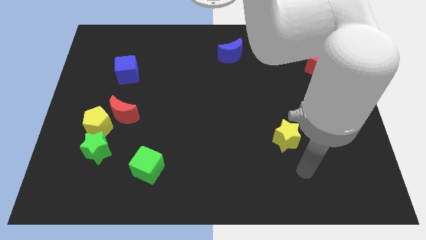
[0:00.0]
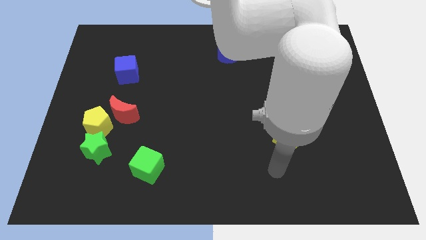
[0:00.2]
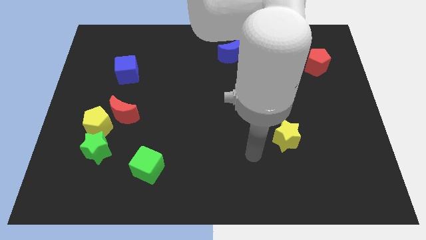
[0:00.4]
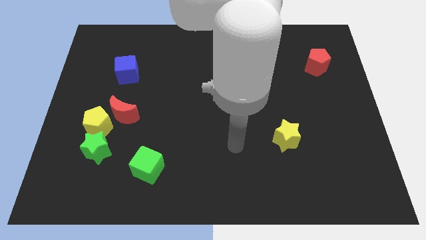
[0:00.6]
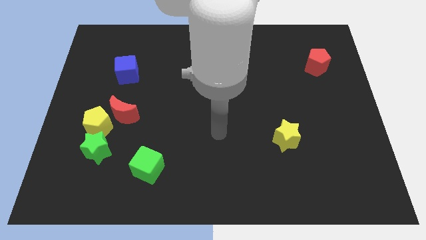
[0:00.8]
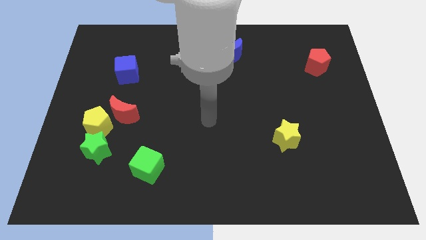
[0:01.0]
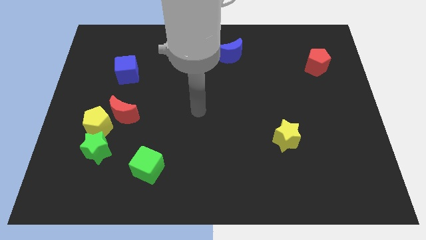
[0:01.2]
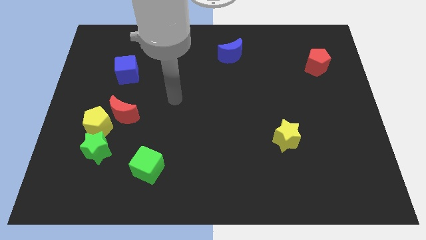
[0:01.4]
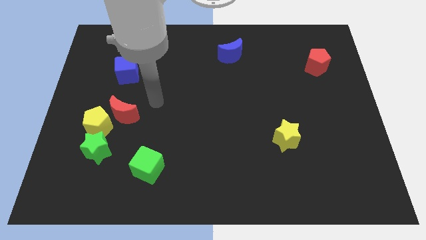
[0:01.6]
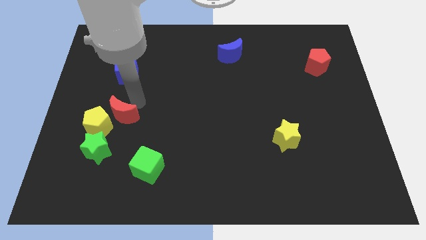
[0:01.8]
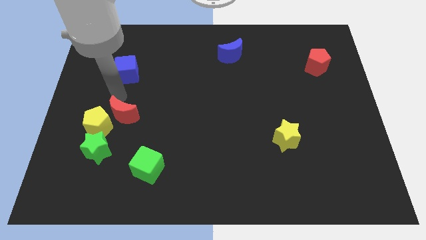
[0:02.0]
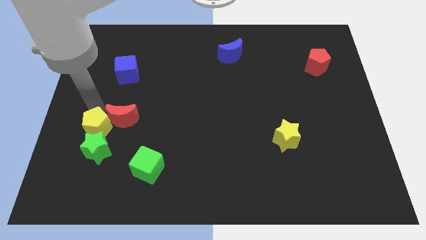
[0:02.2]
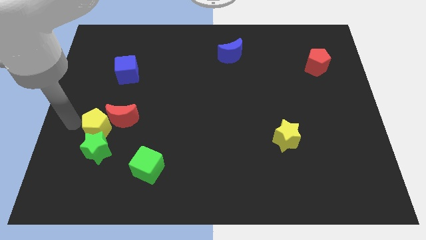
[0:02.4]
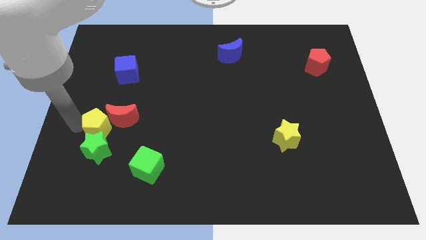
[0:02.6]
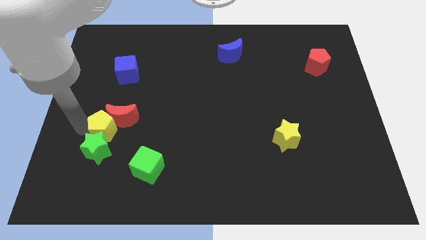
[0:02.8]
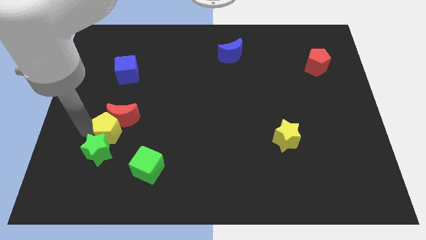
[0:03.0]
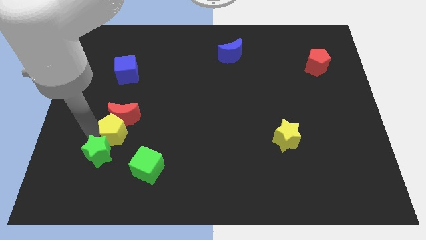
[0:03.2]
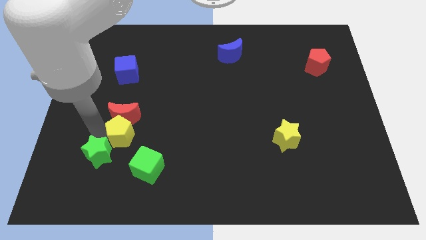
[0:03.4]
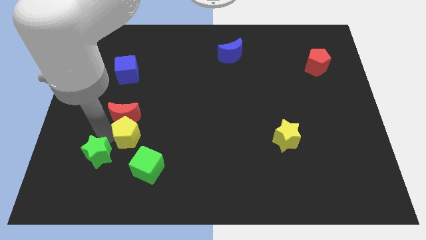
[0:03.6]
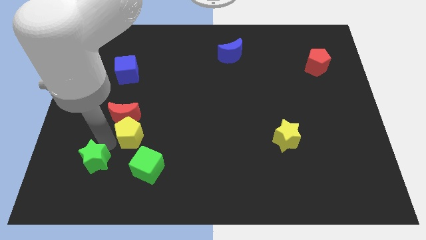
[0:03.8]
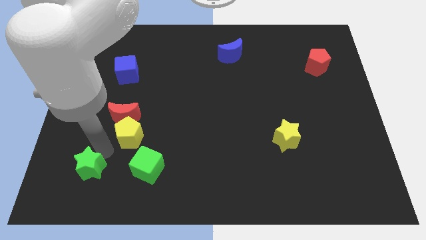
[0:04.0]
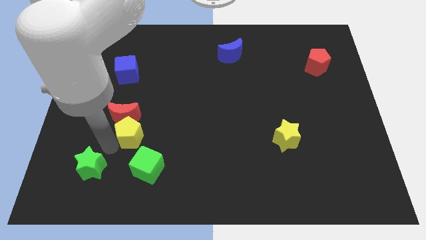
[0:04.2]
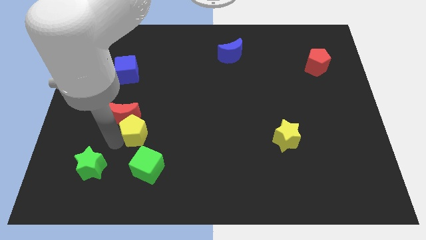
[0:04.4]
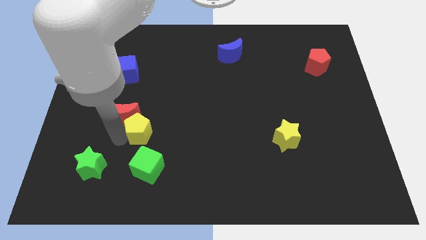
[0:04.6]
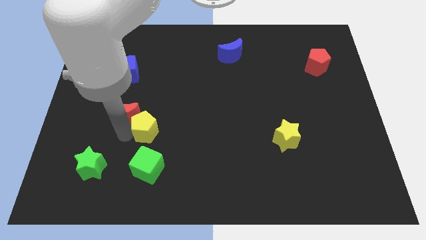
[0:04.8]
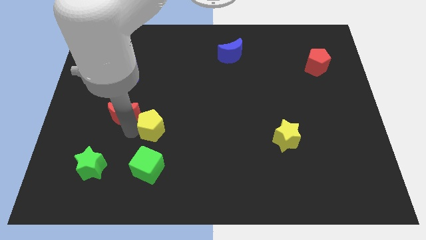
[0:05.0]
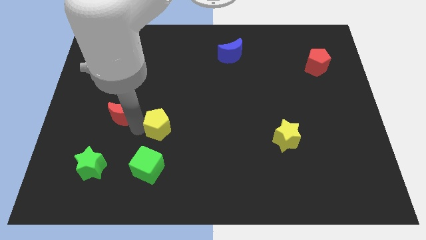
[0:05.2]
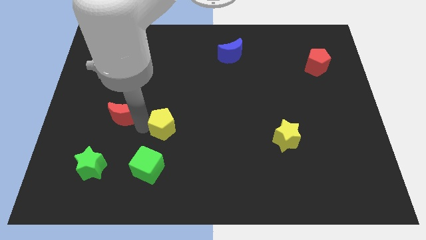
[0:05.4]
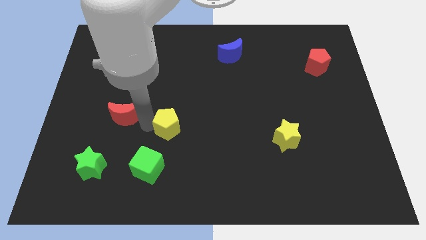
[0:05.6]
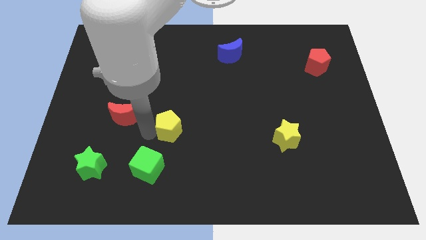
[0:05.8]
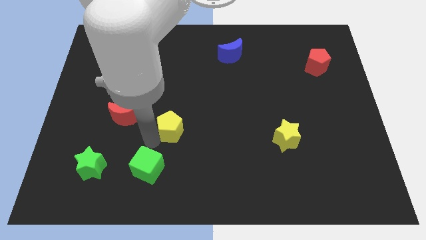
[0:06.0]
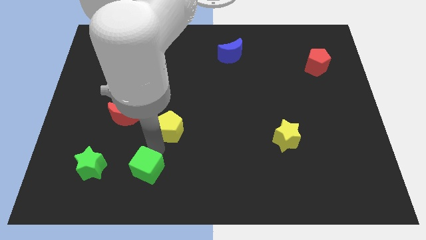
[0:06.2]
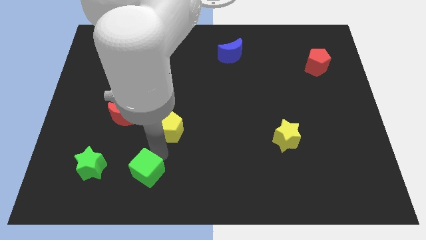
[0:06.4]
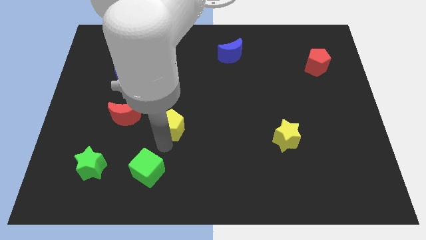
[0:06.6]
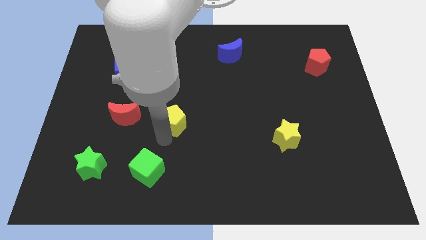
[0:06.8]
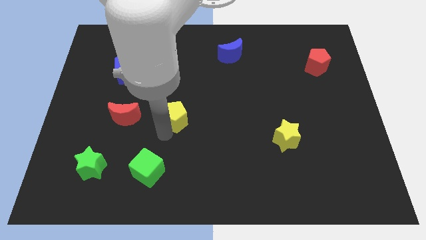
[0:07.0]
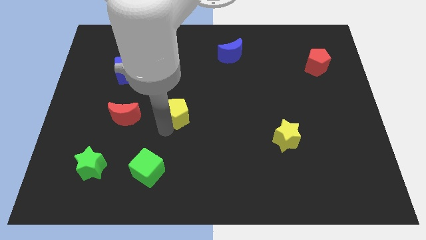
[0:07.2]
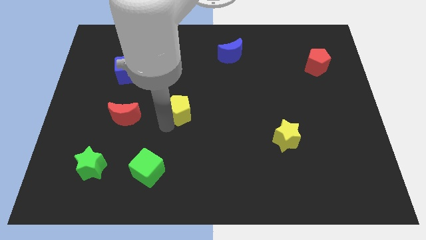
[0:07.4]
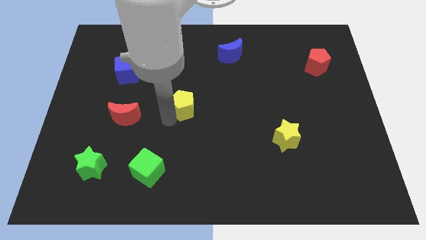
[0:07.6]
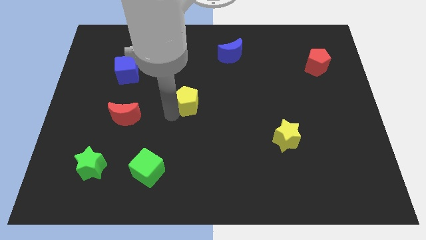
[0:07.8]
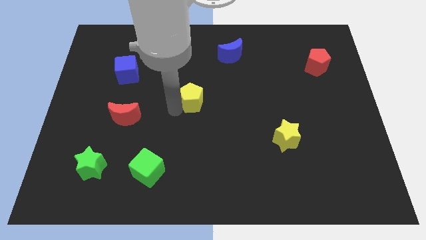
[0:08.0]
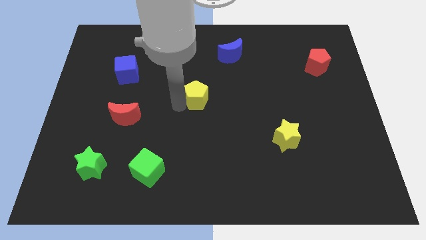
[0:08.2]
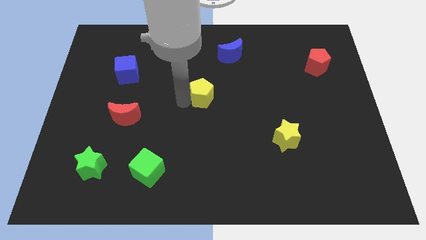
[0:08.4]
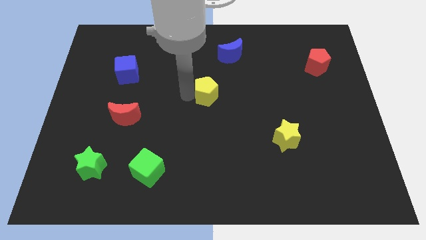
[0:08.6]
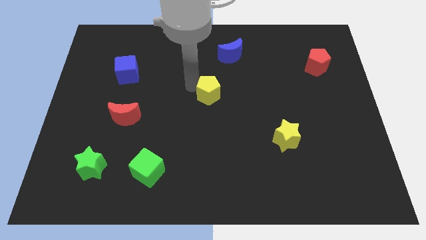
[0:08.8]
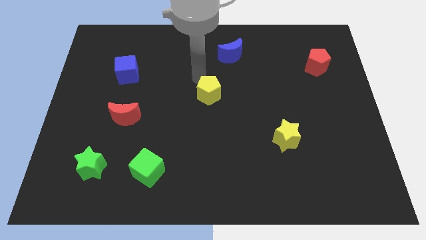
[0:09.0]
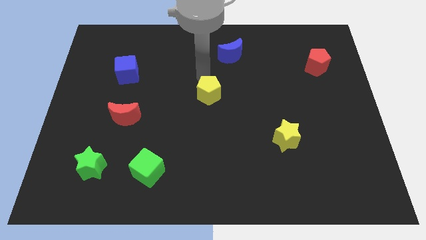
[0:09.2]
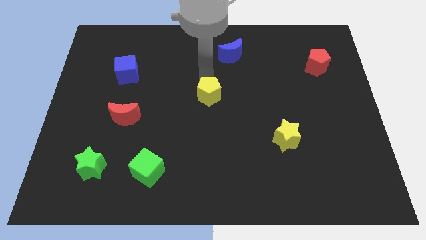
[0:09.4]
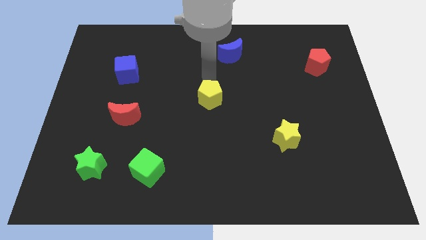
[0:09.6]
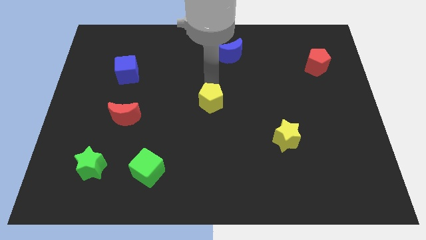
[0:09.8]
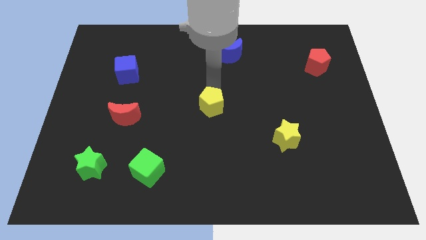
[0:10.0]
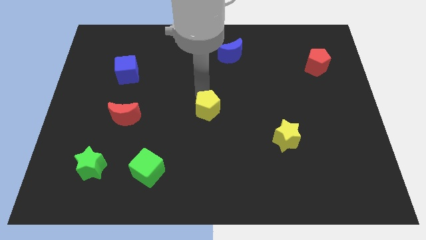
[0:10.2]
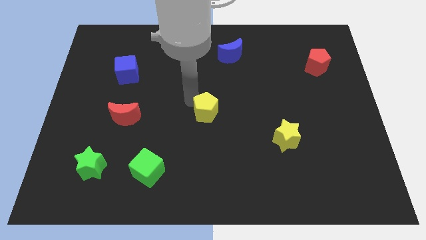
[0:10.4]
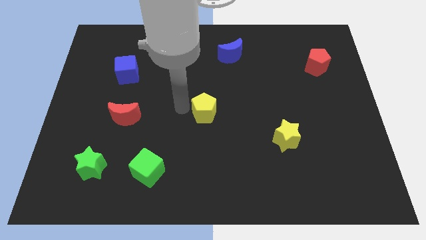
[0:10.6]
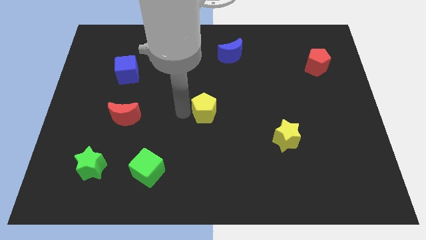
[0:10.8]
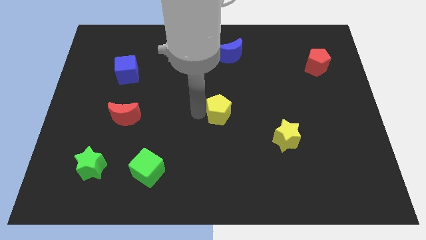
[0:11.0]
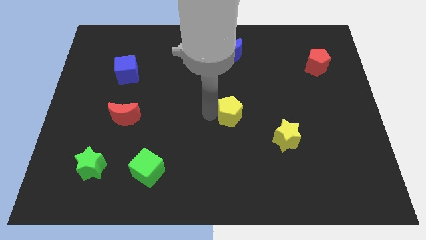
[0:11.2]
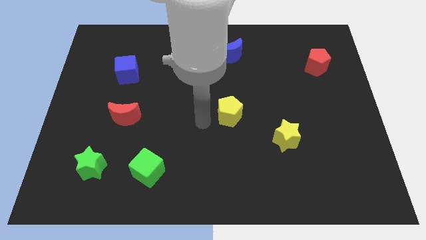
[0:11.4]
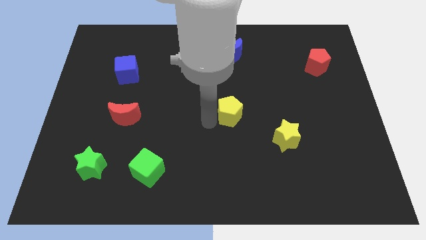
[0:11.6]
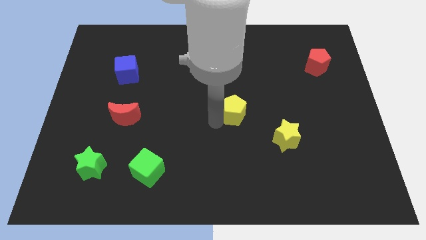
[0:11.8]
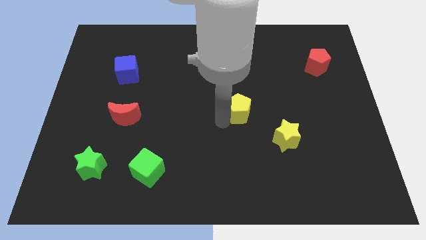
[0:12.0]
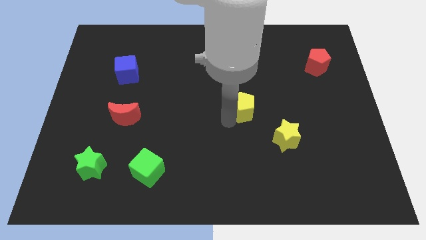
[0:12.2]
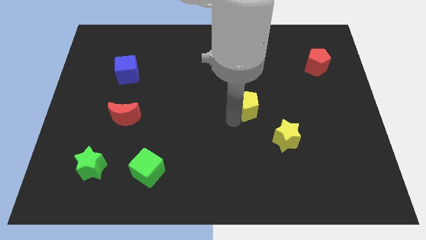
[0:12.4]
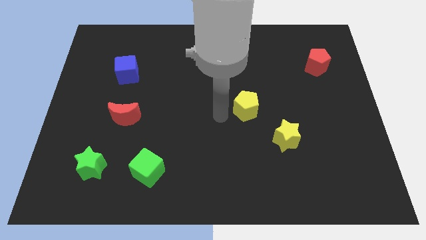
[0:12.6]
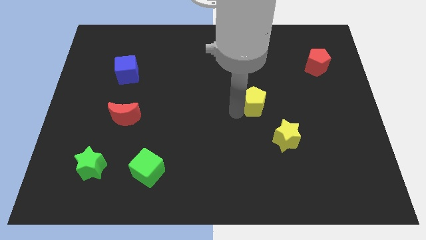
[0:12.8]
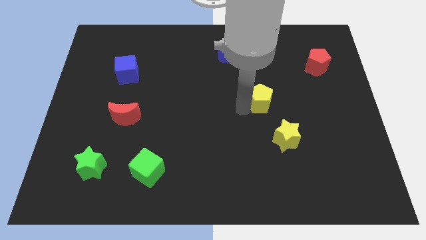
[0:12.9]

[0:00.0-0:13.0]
slide the yellow pentagon to the top side of the yellow star
